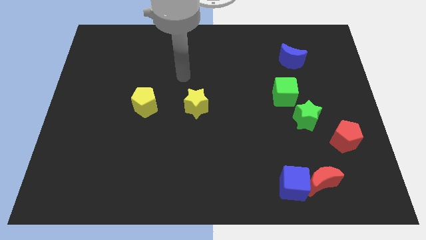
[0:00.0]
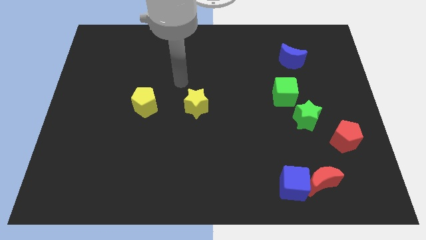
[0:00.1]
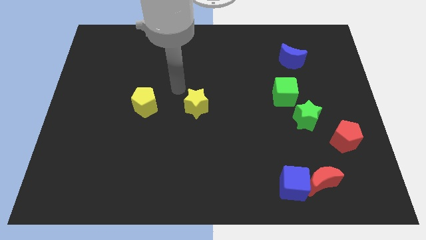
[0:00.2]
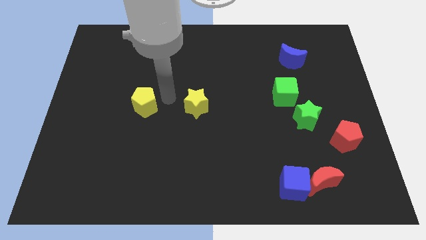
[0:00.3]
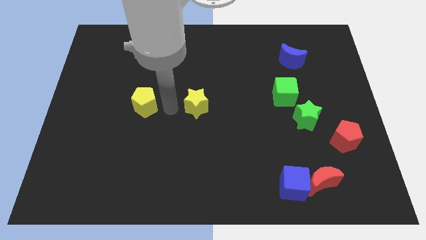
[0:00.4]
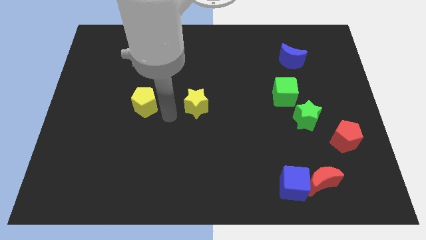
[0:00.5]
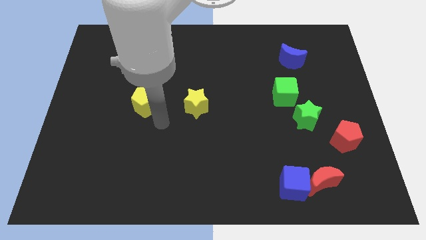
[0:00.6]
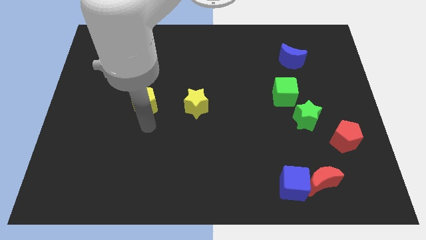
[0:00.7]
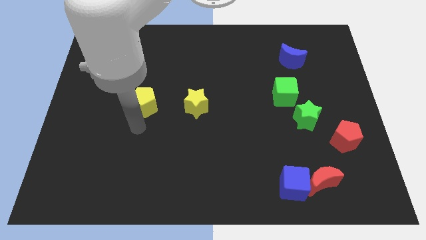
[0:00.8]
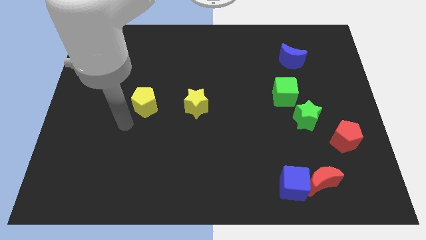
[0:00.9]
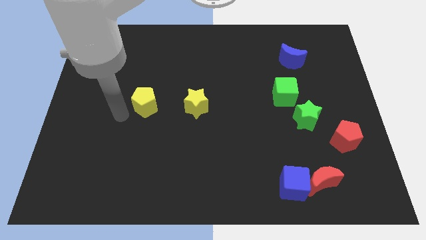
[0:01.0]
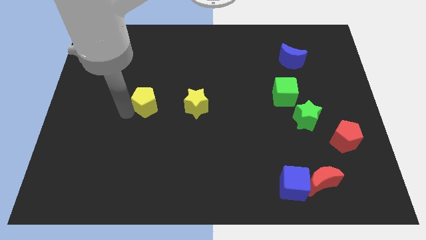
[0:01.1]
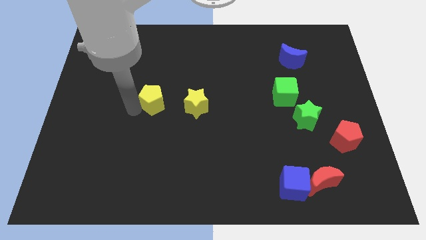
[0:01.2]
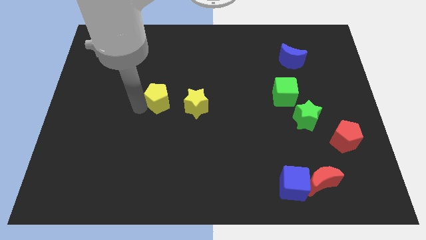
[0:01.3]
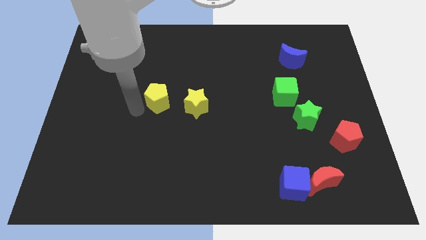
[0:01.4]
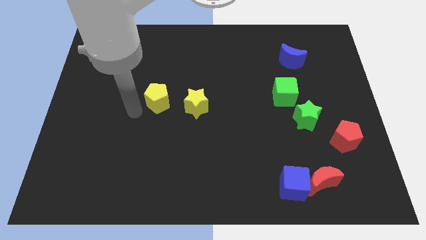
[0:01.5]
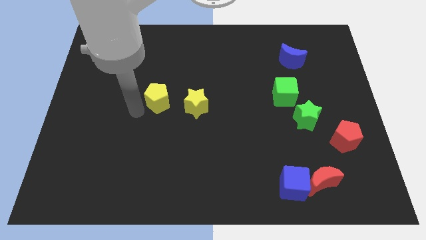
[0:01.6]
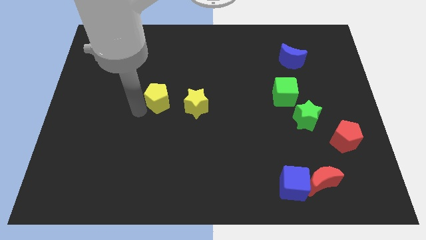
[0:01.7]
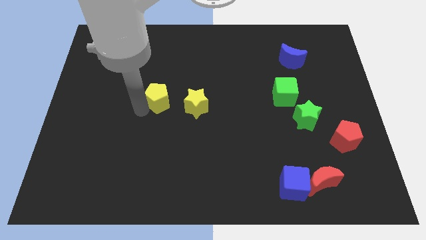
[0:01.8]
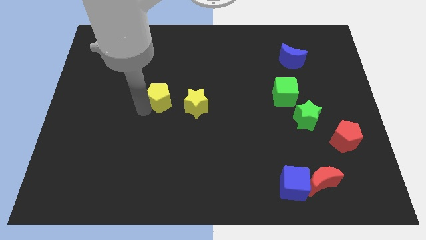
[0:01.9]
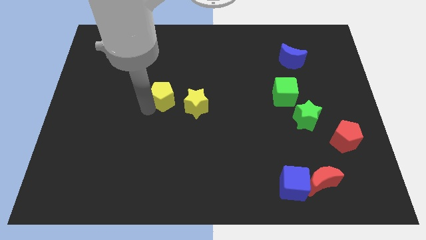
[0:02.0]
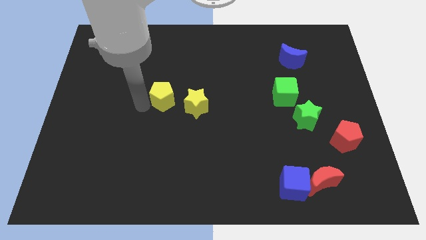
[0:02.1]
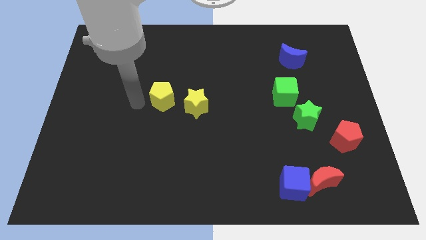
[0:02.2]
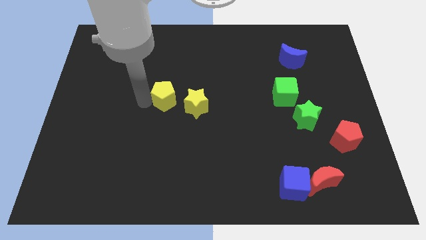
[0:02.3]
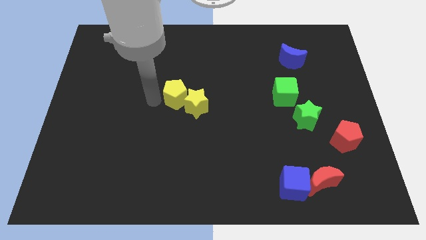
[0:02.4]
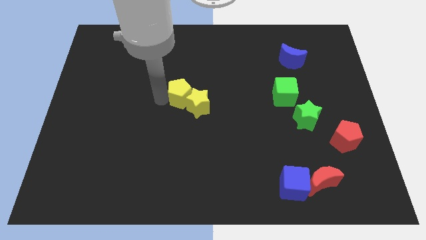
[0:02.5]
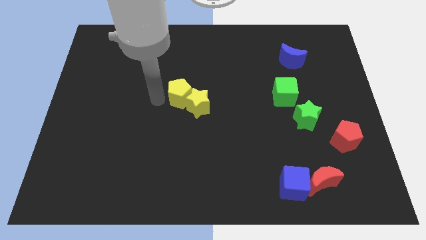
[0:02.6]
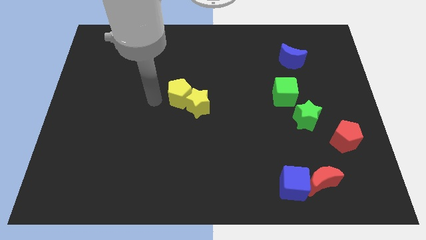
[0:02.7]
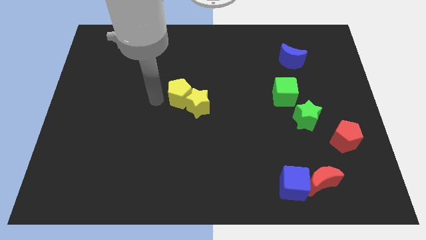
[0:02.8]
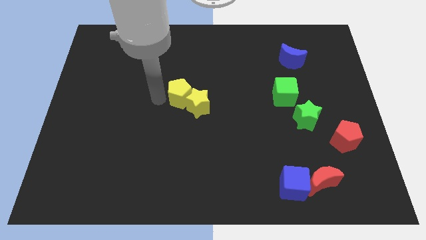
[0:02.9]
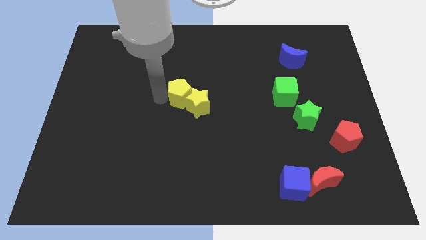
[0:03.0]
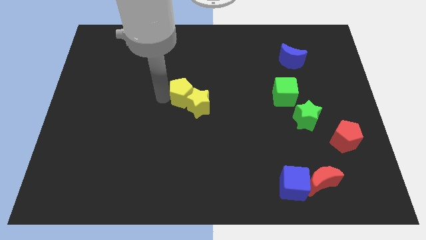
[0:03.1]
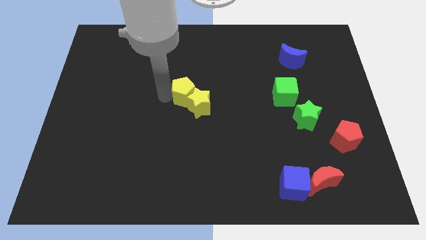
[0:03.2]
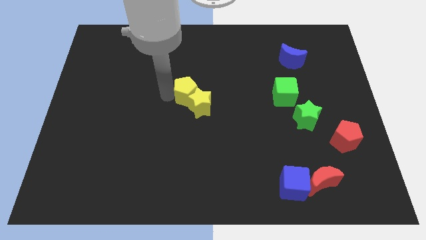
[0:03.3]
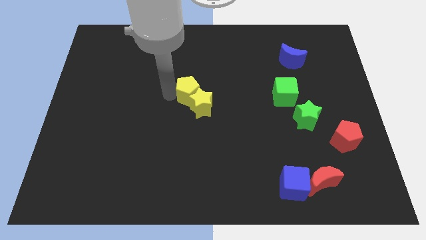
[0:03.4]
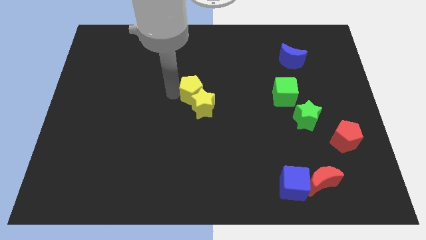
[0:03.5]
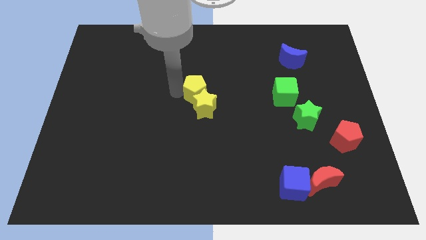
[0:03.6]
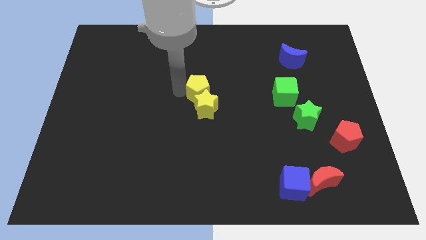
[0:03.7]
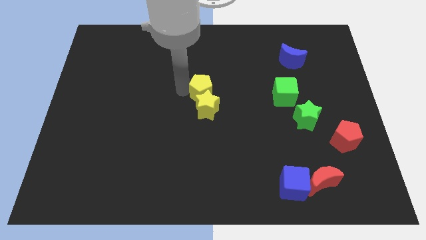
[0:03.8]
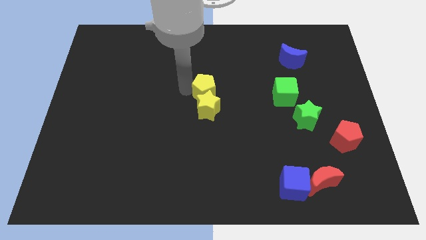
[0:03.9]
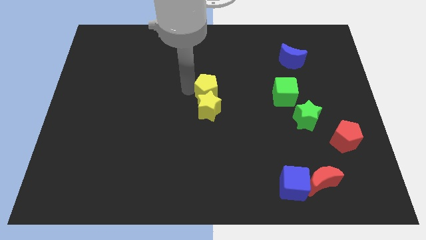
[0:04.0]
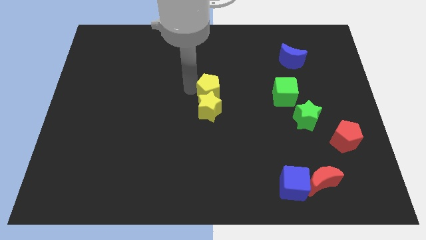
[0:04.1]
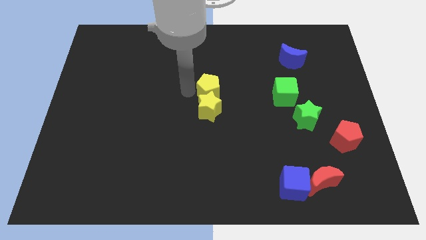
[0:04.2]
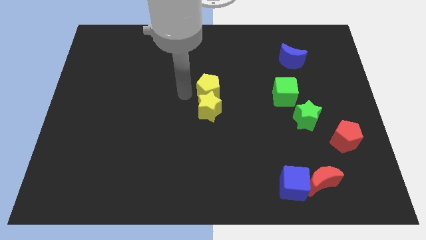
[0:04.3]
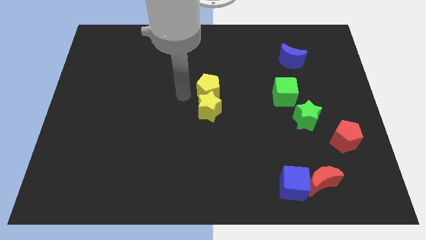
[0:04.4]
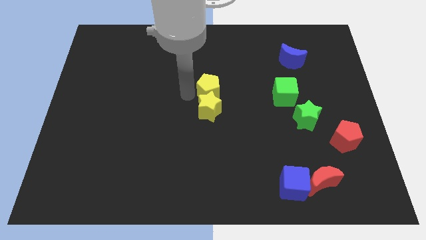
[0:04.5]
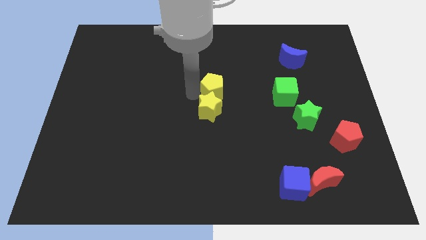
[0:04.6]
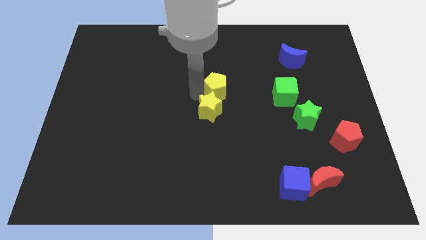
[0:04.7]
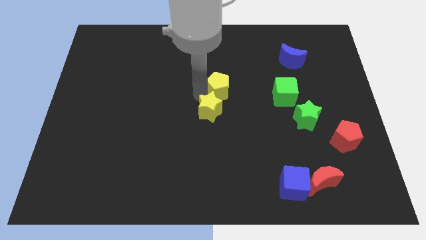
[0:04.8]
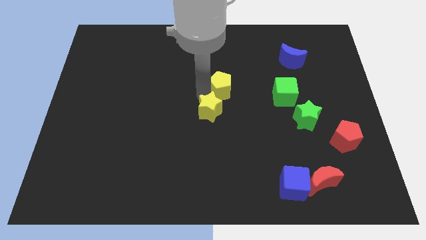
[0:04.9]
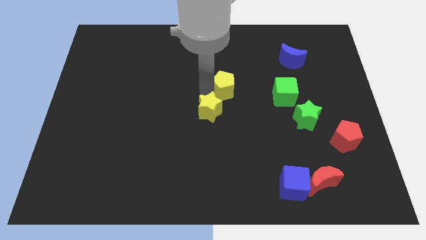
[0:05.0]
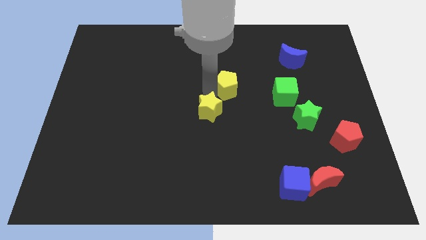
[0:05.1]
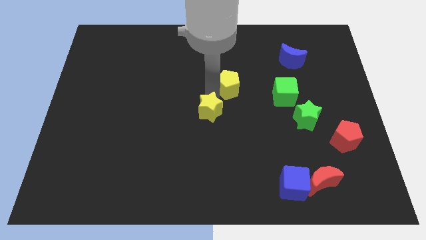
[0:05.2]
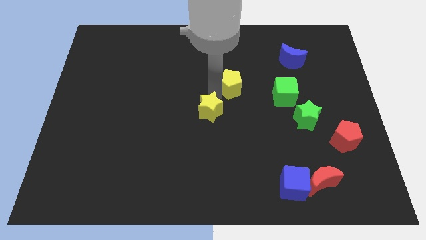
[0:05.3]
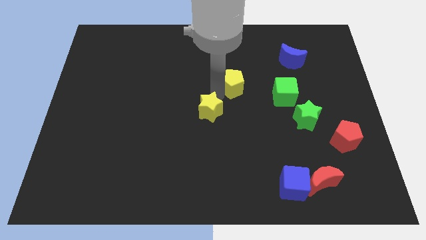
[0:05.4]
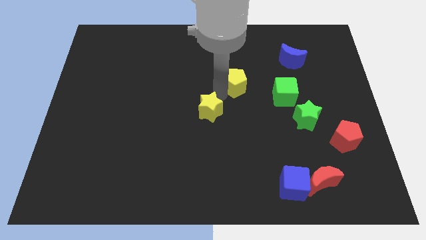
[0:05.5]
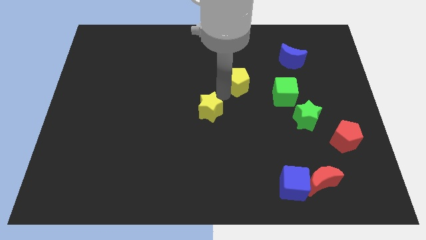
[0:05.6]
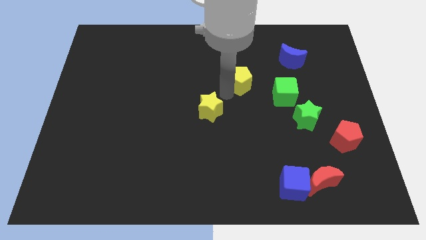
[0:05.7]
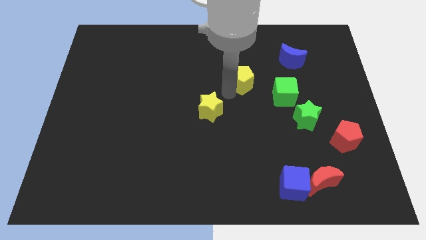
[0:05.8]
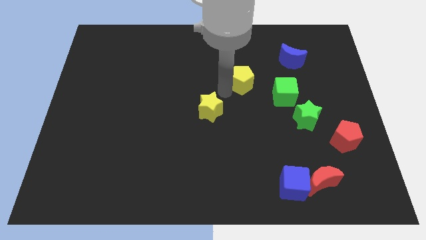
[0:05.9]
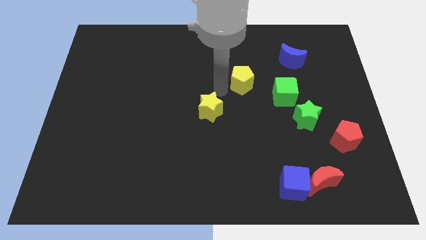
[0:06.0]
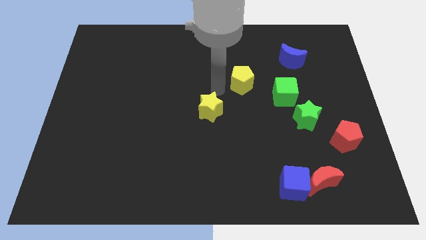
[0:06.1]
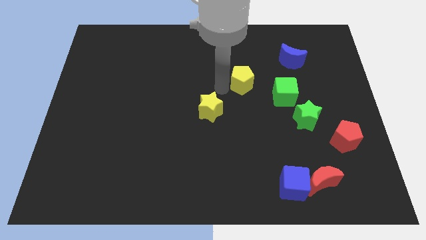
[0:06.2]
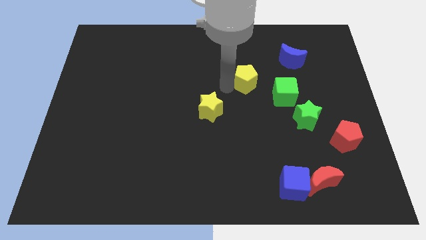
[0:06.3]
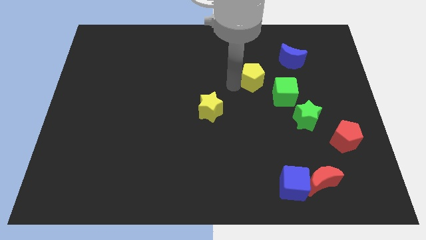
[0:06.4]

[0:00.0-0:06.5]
slide the yellow pentagon to the bottom left of the blue moon

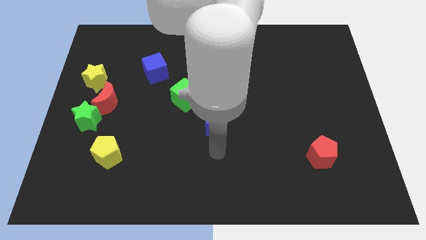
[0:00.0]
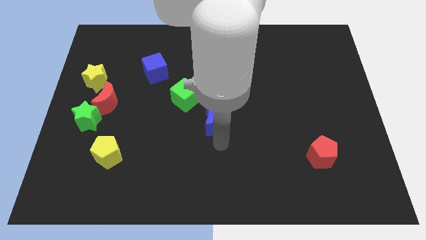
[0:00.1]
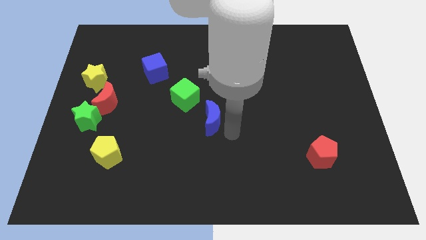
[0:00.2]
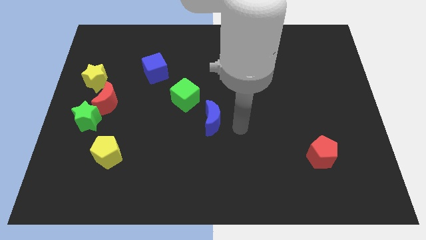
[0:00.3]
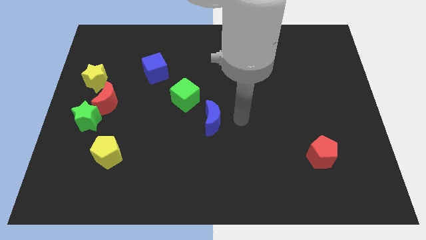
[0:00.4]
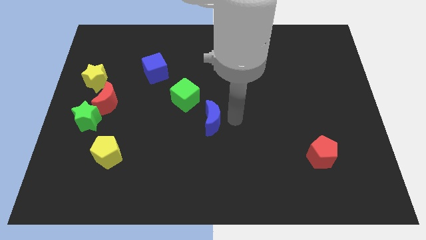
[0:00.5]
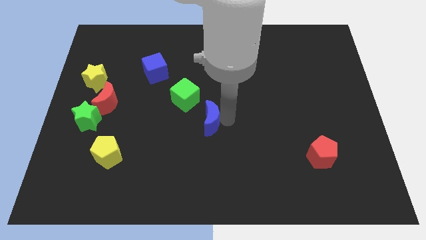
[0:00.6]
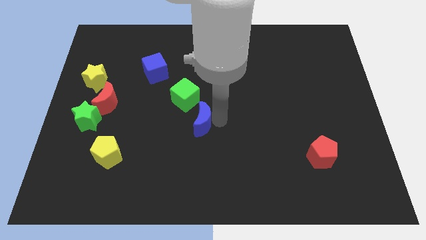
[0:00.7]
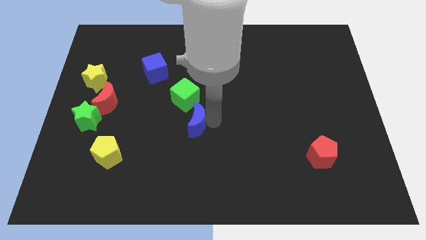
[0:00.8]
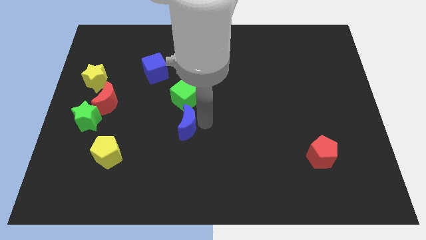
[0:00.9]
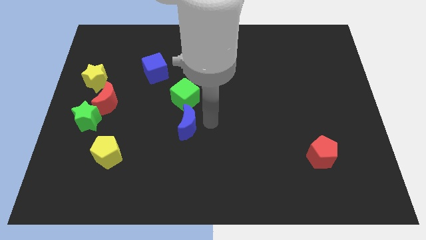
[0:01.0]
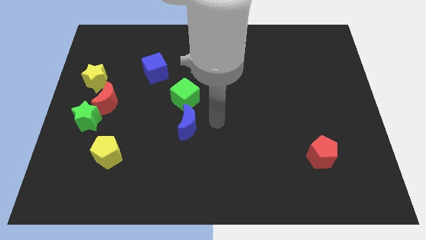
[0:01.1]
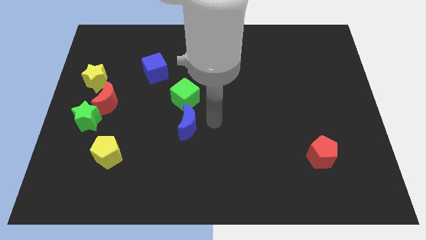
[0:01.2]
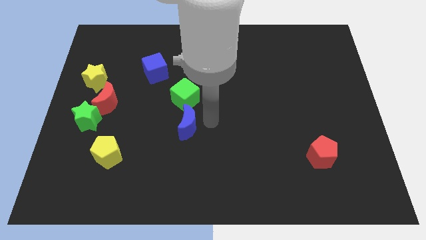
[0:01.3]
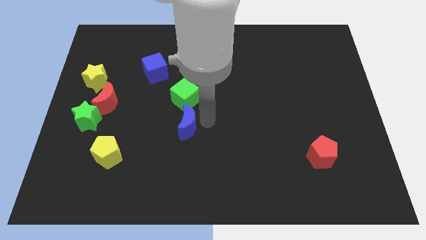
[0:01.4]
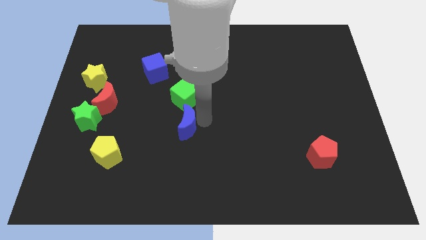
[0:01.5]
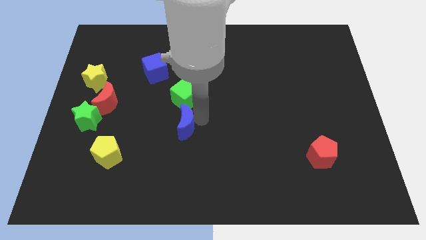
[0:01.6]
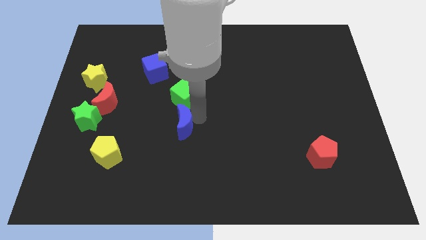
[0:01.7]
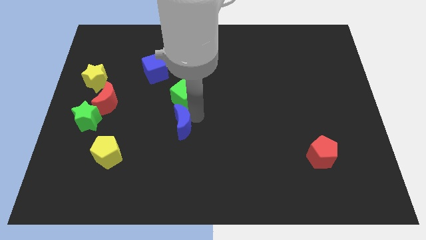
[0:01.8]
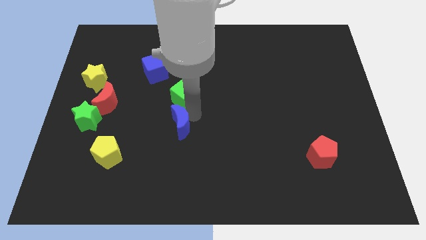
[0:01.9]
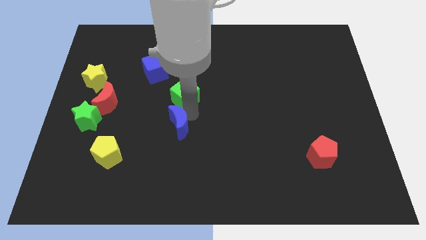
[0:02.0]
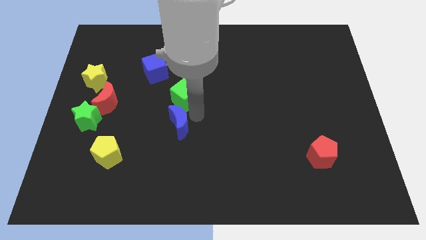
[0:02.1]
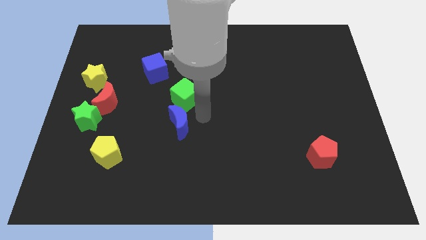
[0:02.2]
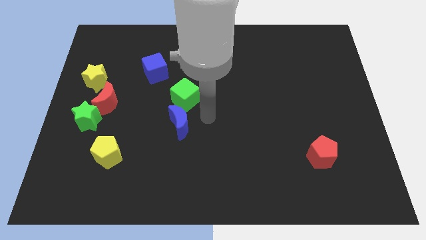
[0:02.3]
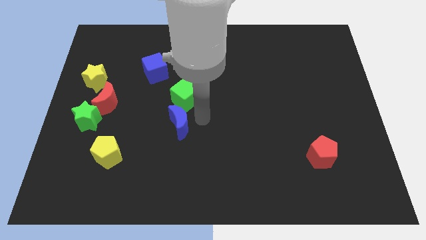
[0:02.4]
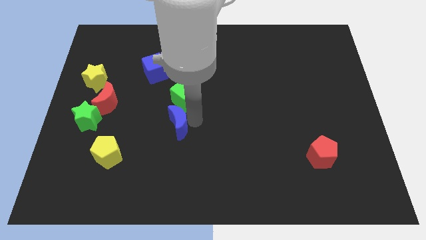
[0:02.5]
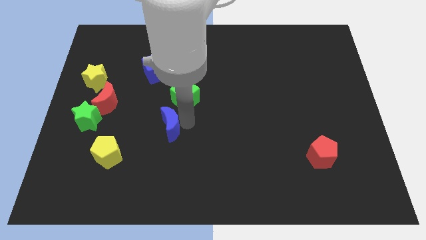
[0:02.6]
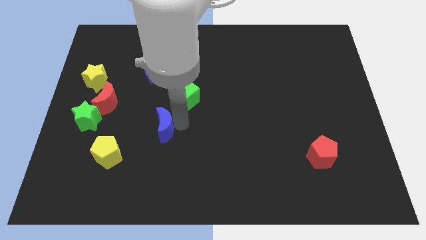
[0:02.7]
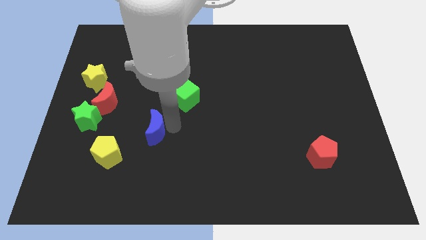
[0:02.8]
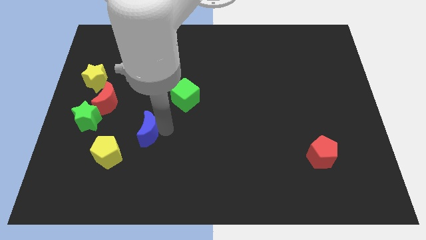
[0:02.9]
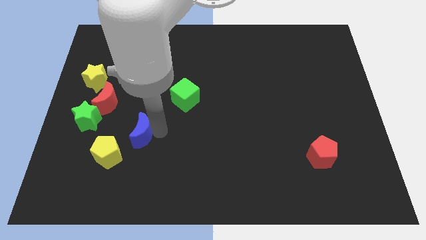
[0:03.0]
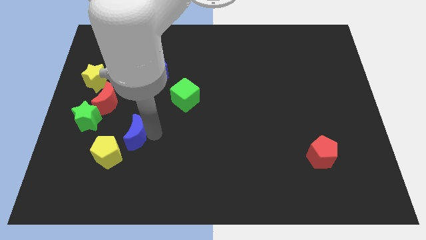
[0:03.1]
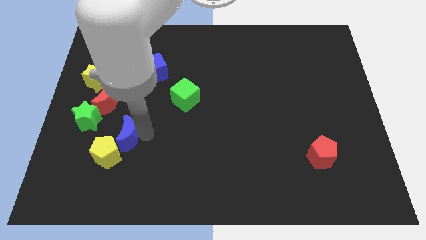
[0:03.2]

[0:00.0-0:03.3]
slide the blue moon to the bottom right side of the green star
